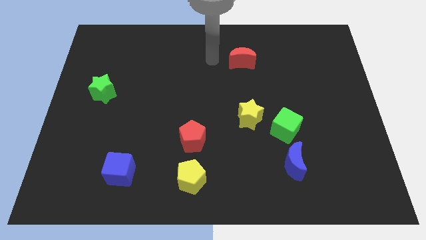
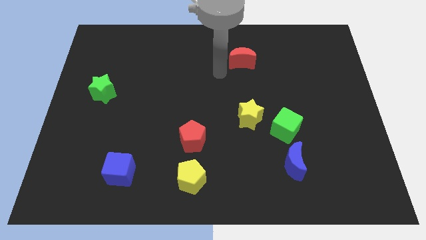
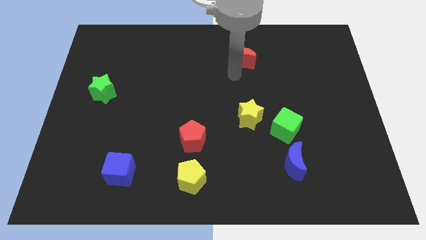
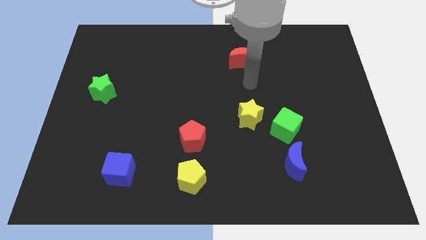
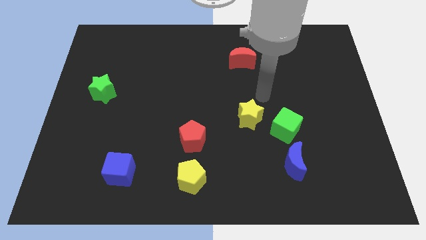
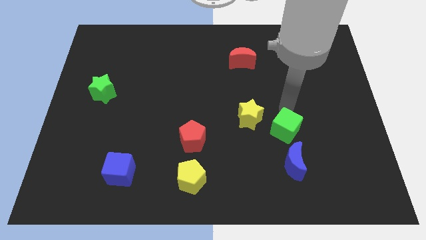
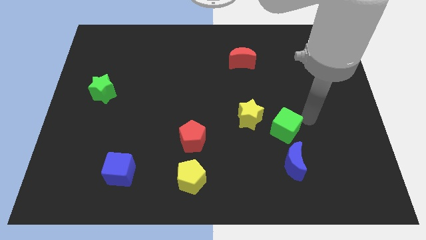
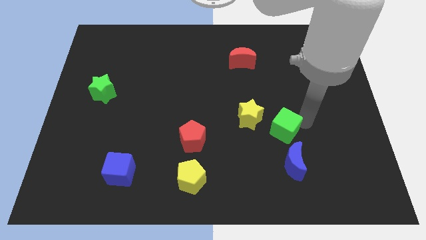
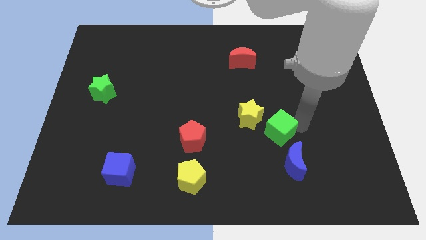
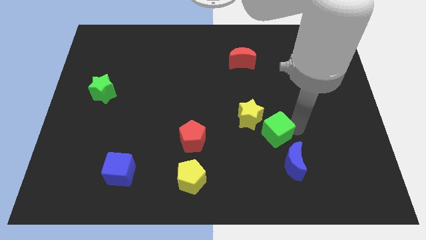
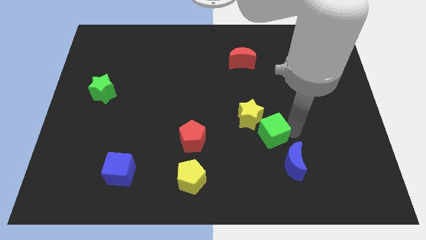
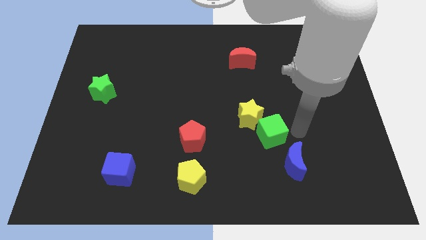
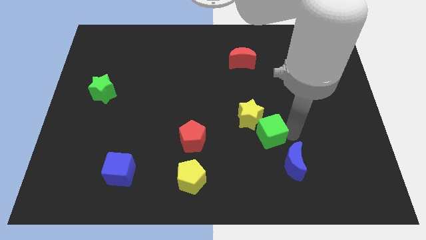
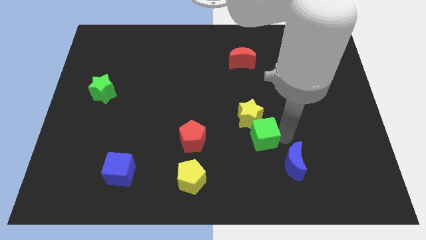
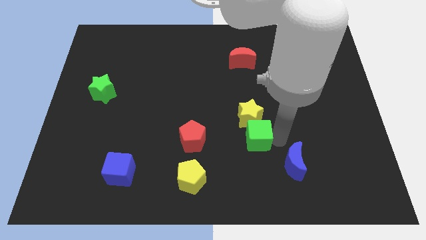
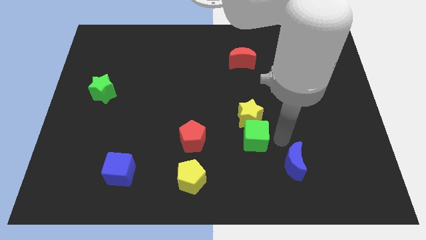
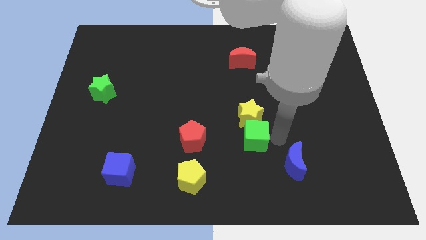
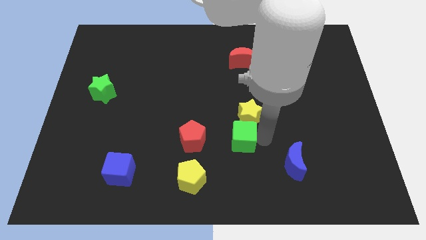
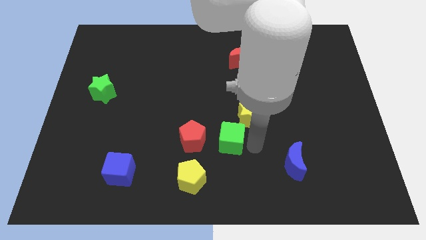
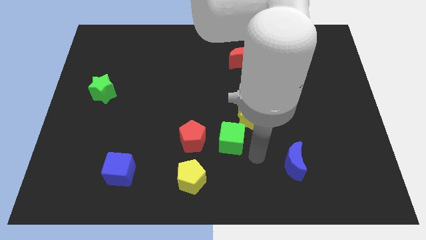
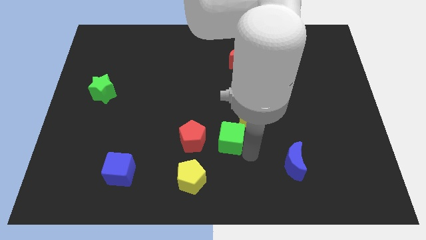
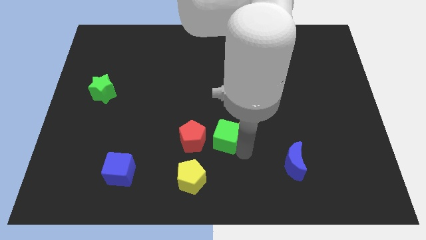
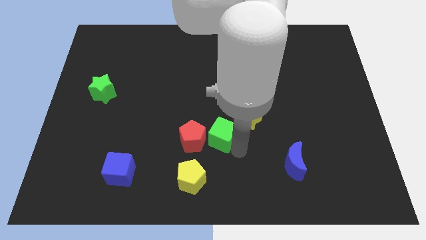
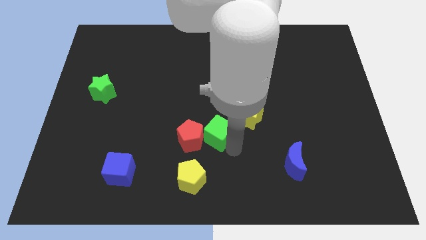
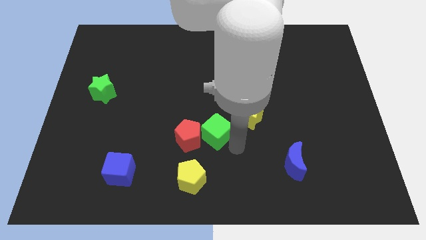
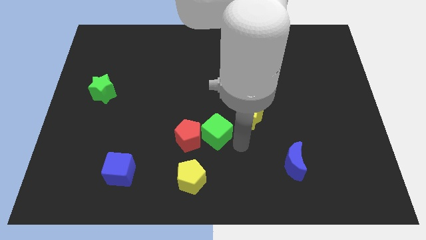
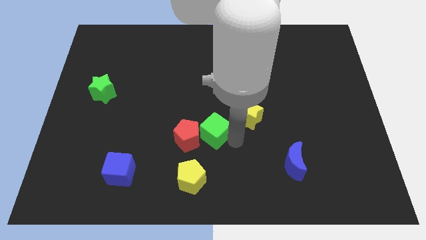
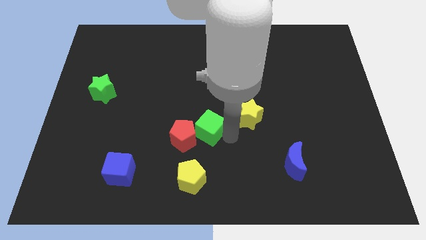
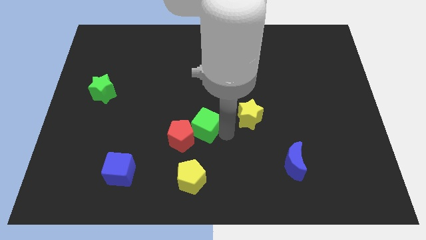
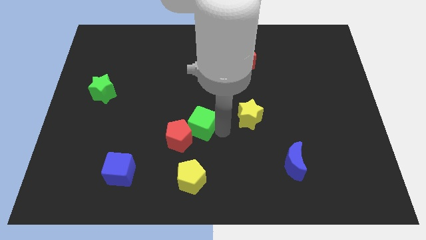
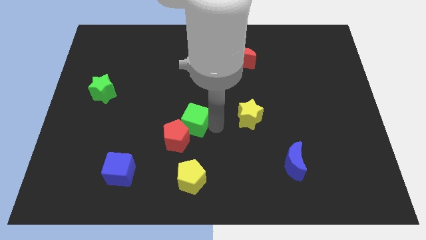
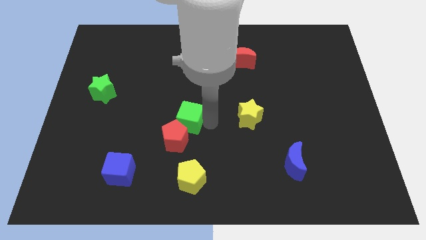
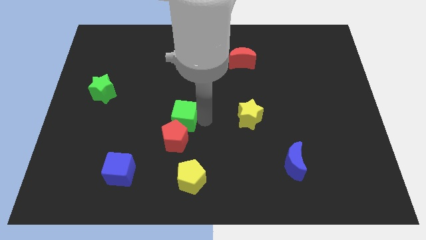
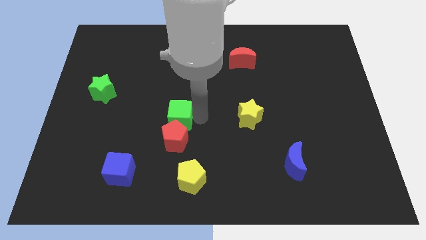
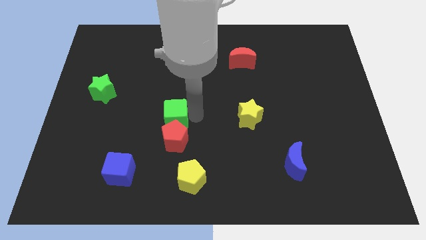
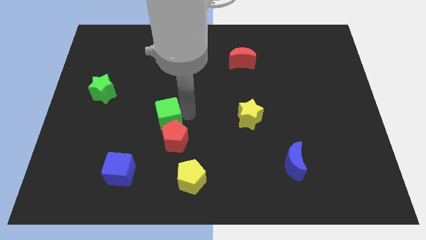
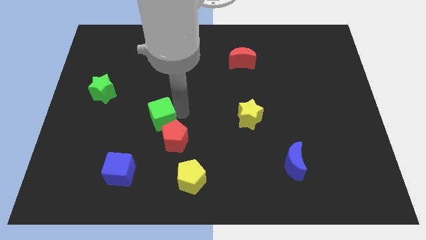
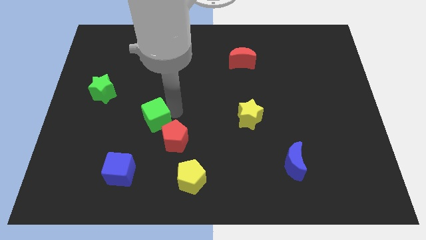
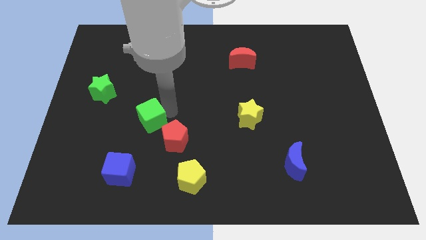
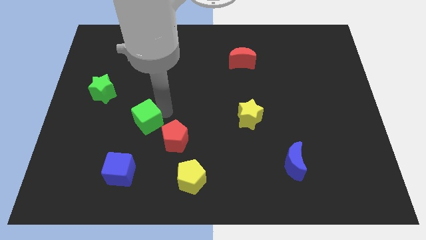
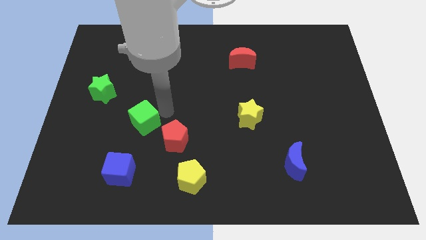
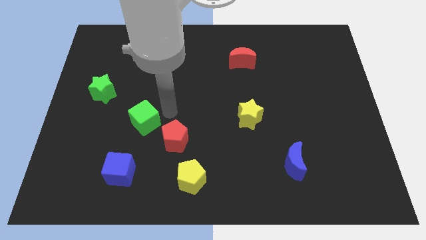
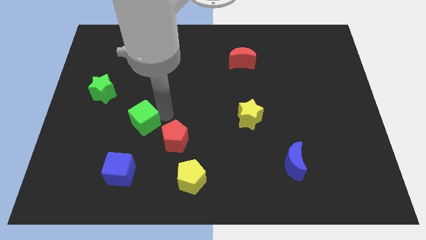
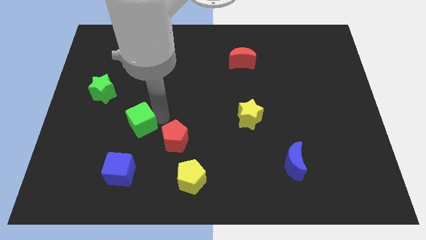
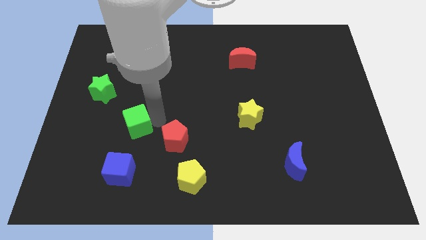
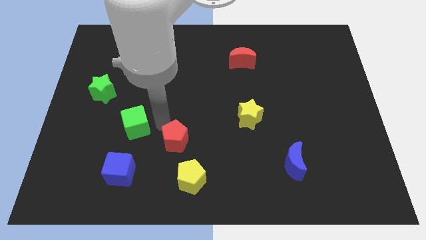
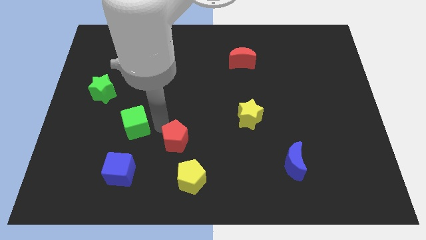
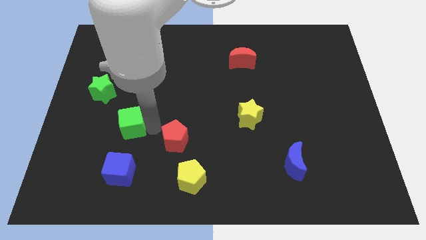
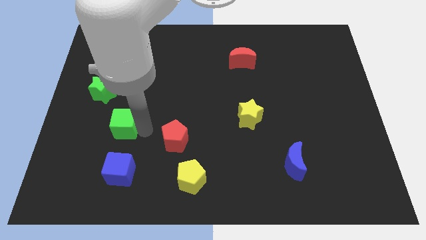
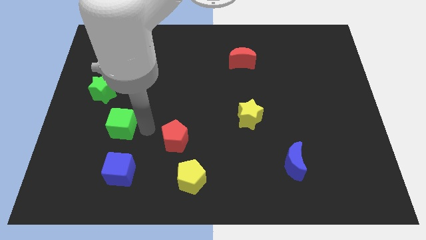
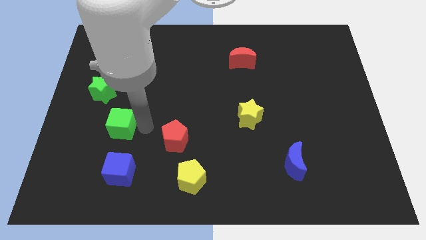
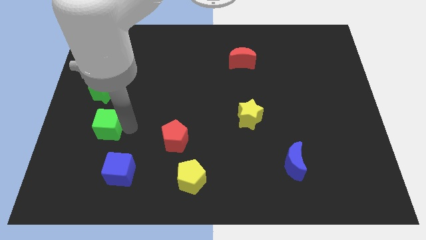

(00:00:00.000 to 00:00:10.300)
slide the green cube below the green star

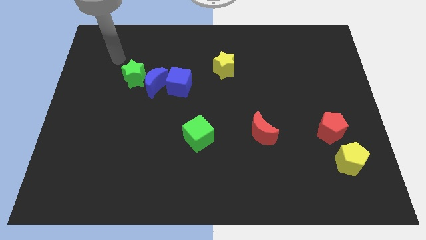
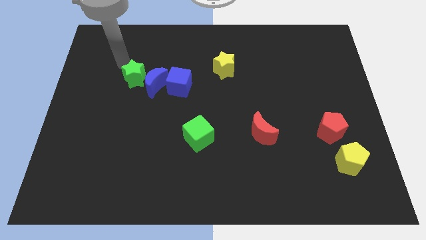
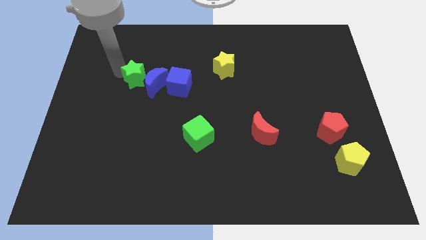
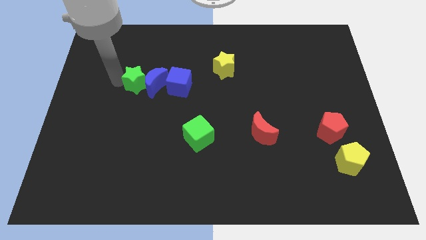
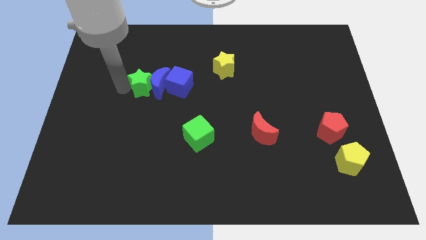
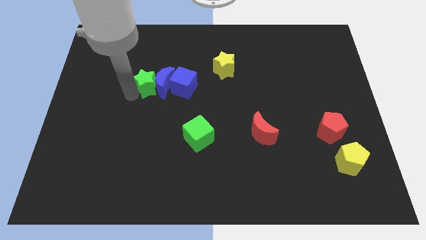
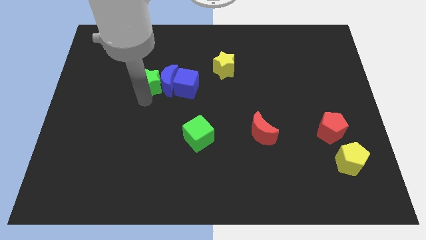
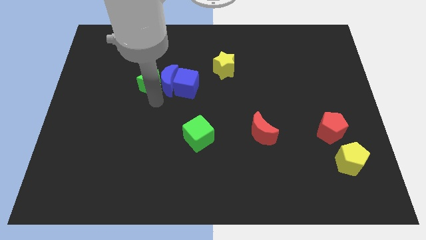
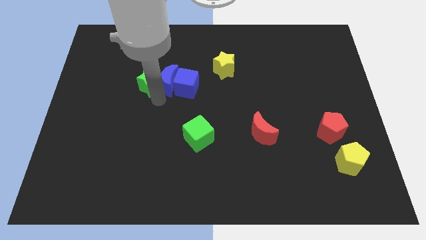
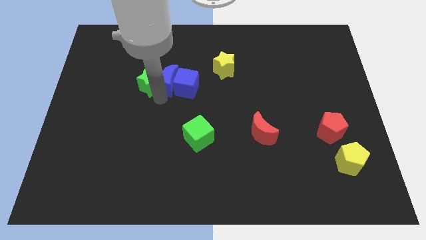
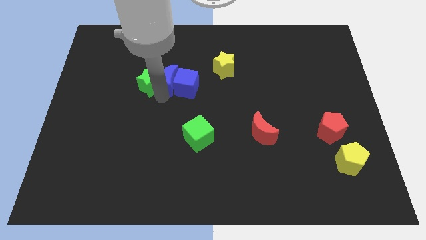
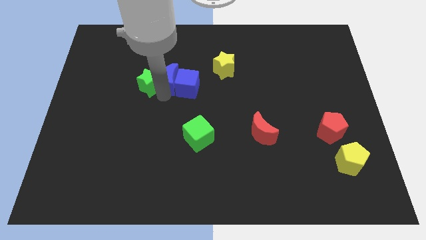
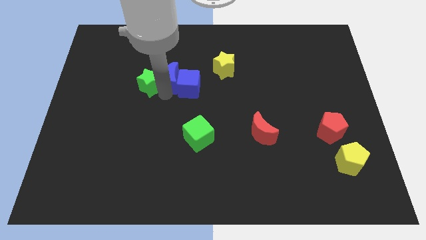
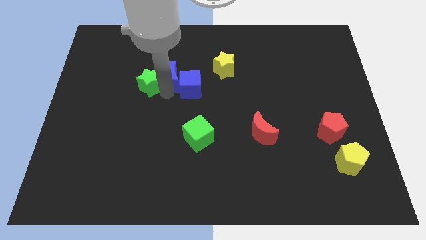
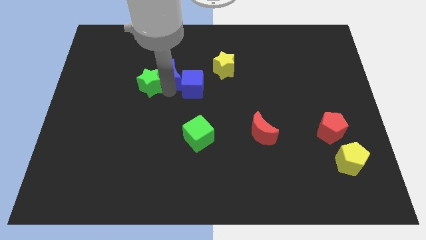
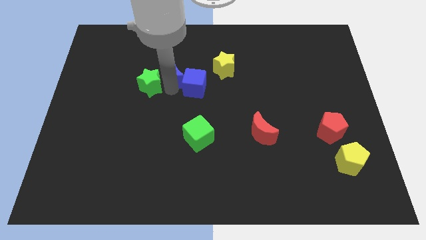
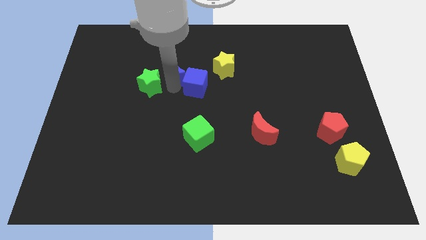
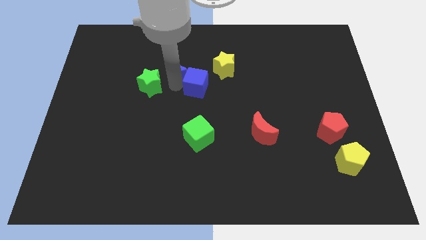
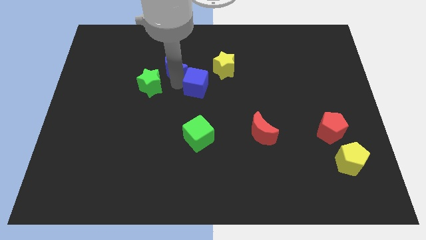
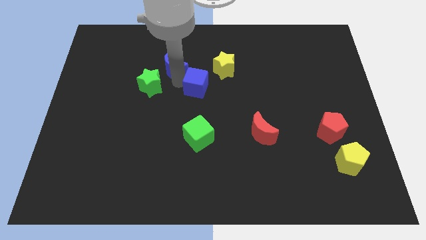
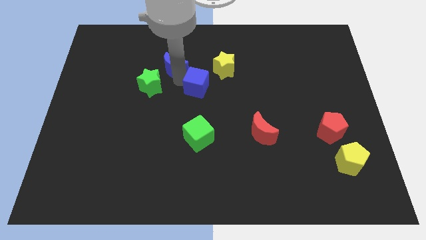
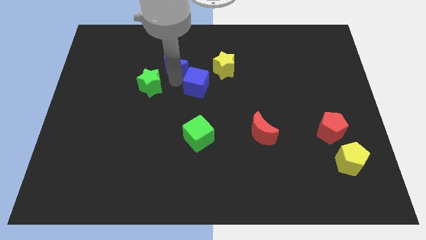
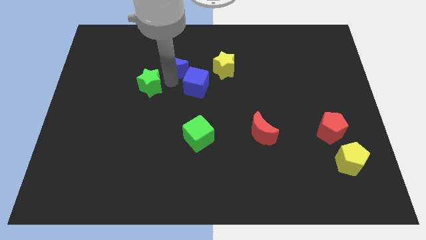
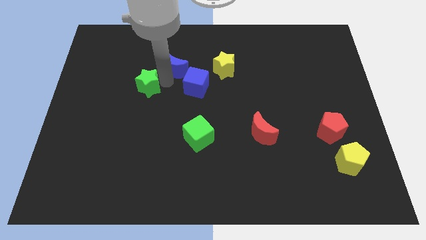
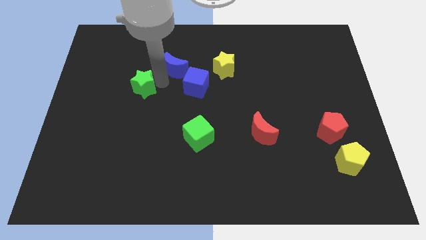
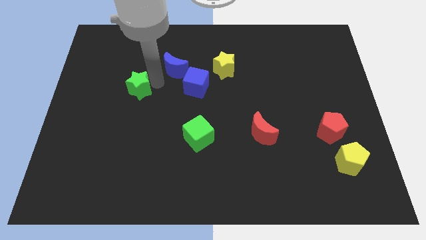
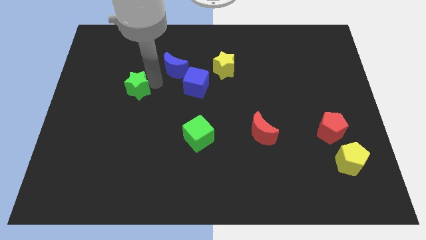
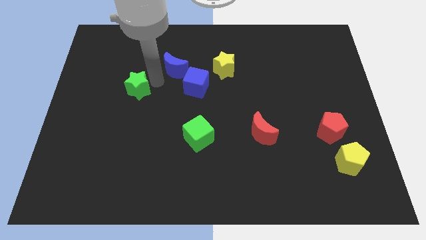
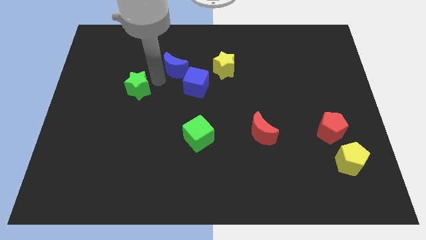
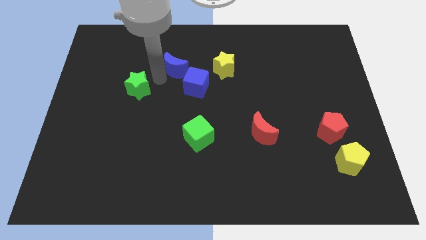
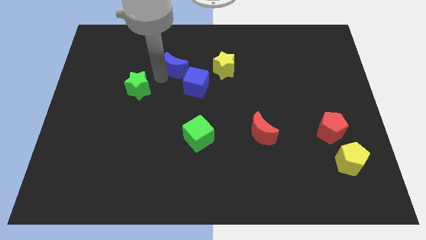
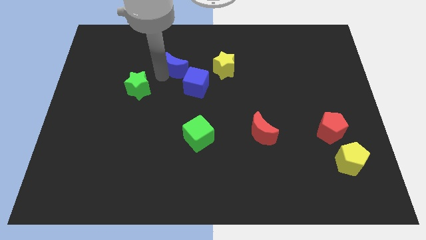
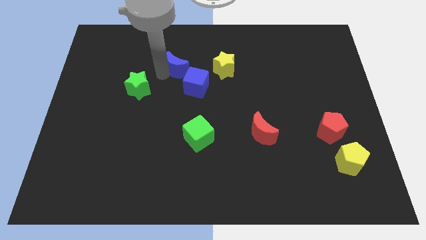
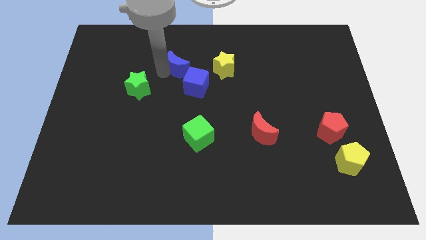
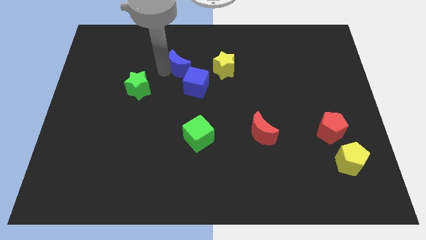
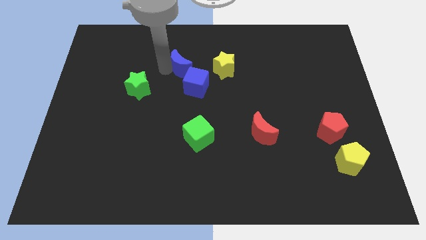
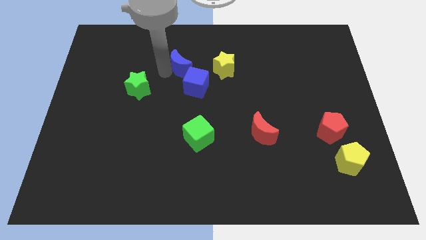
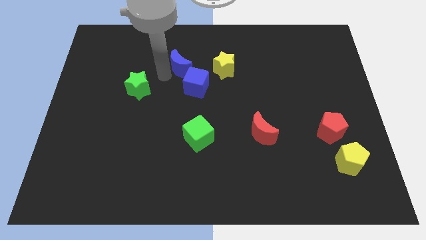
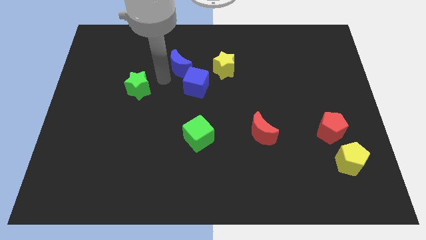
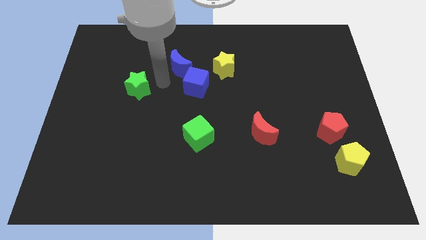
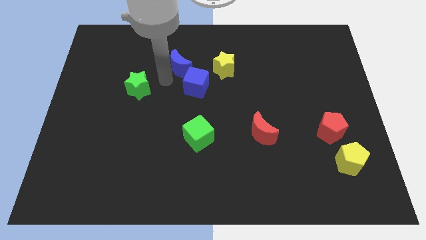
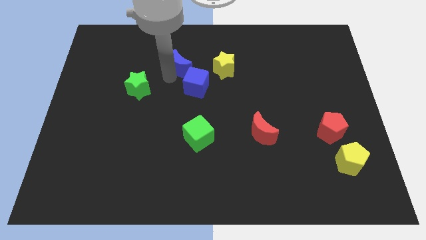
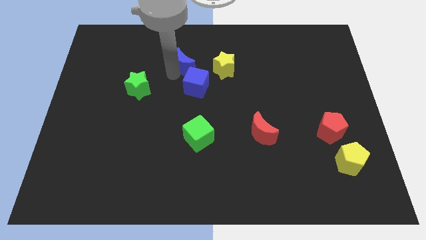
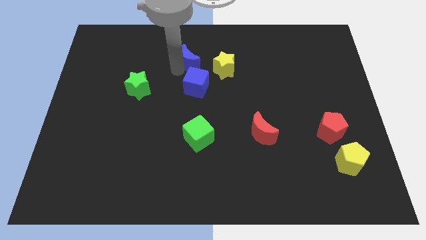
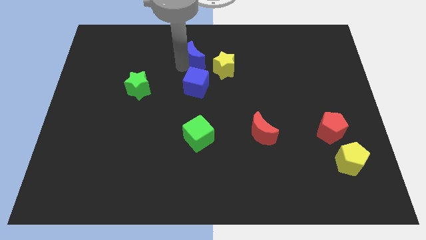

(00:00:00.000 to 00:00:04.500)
push the blue moon to the top left side of the yellow star
